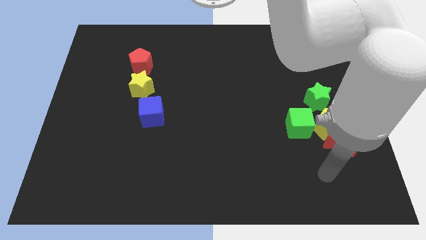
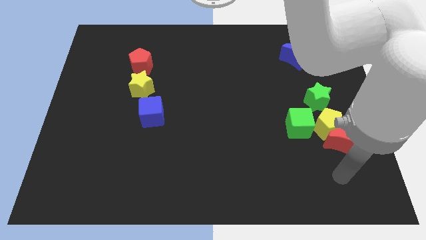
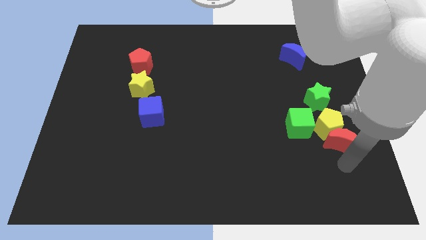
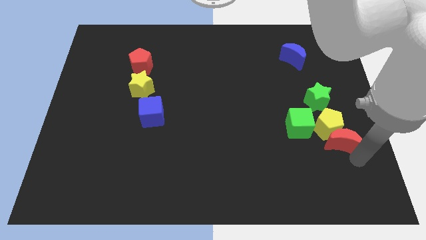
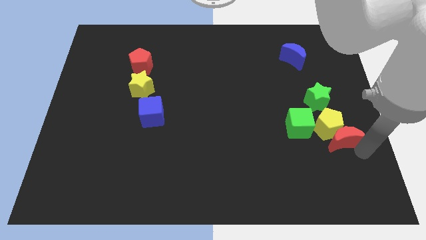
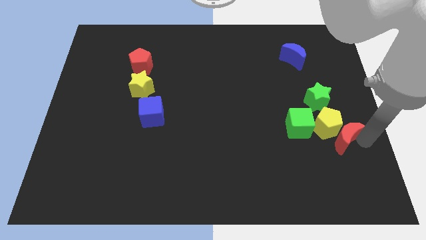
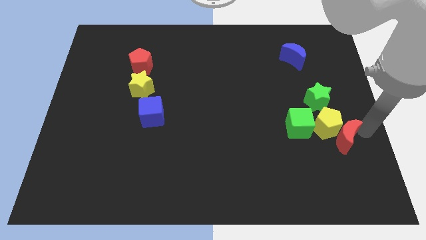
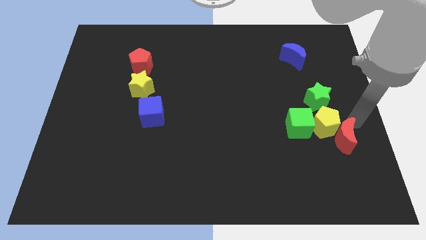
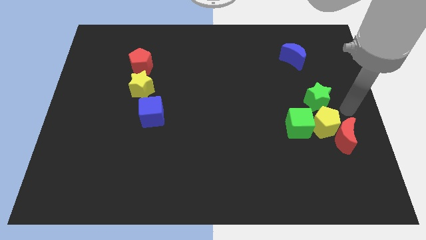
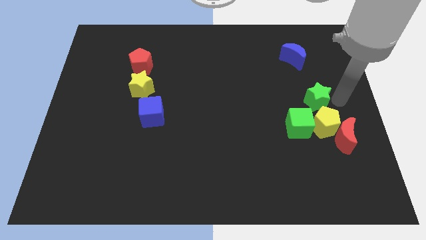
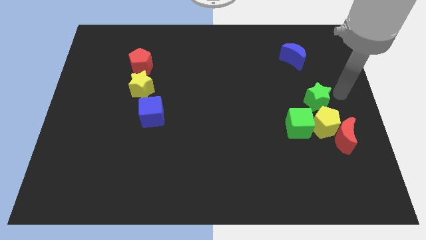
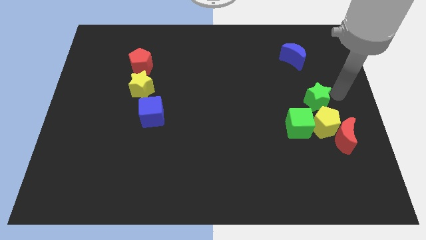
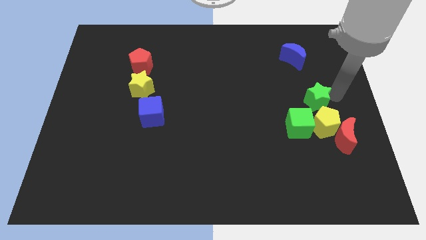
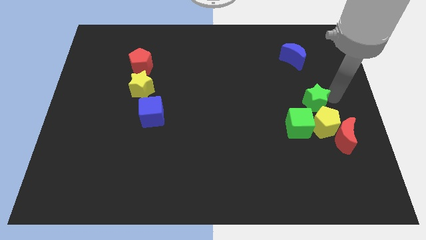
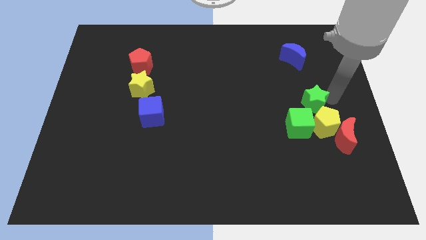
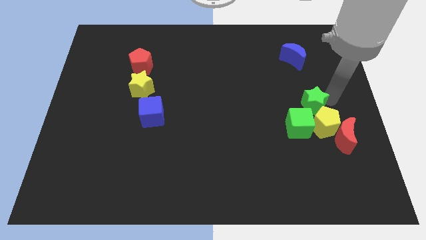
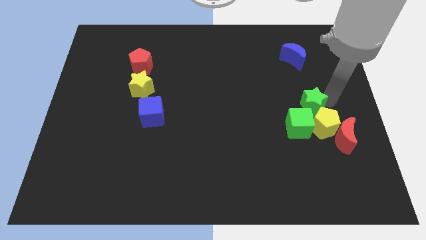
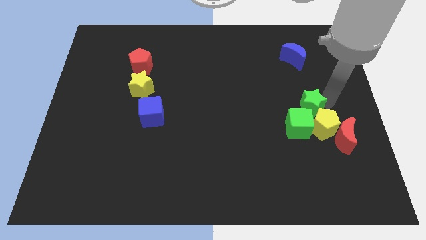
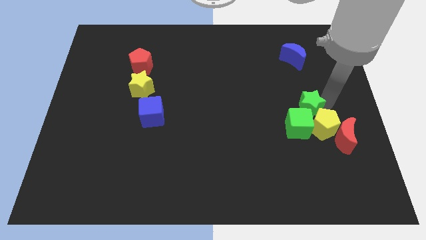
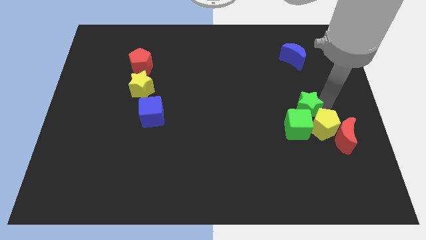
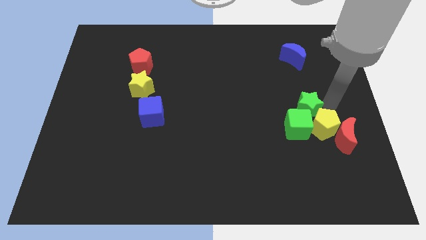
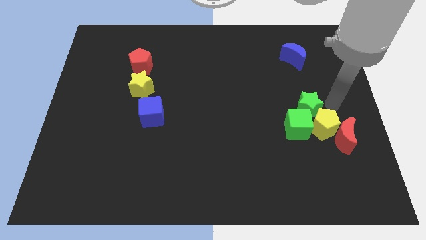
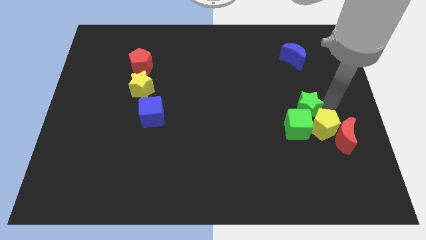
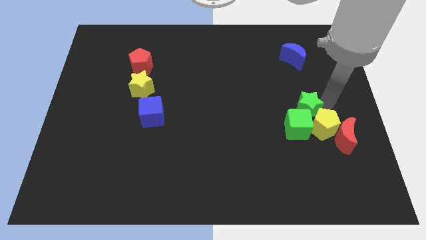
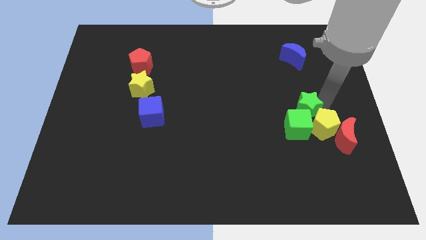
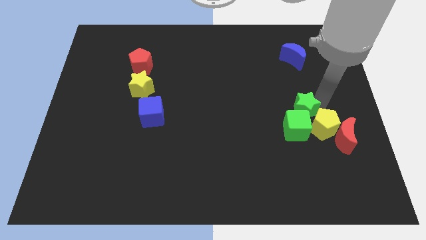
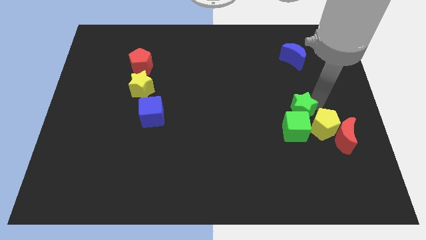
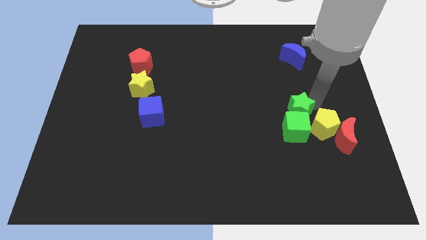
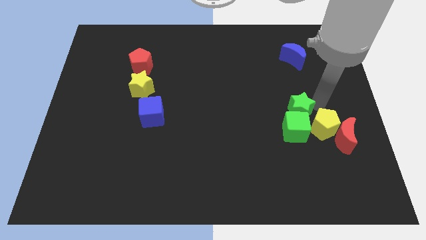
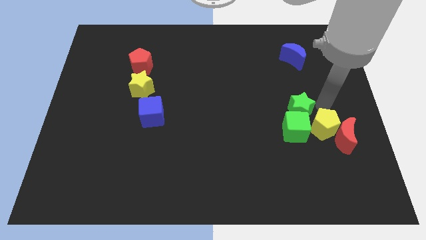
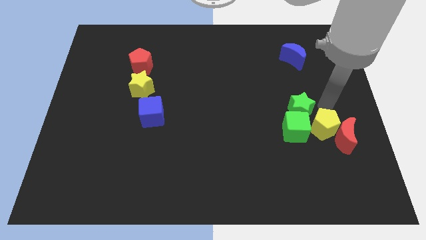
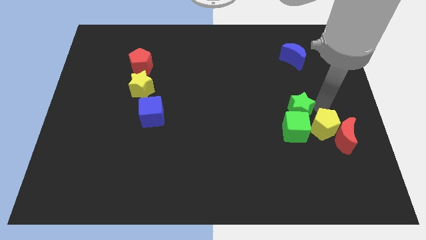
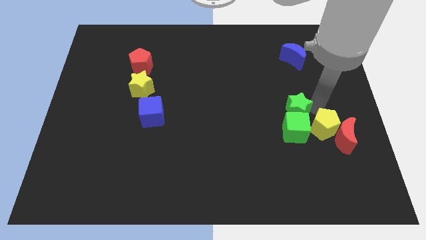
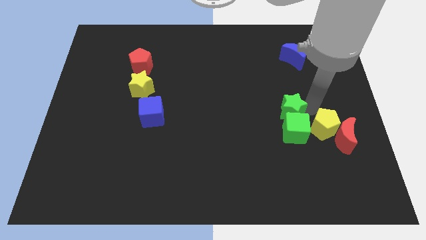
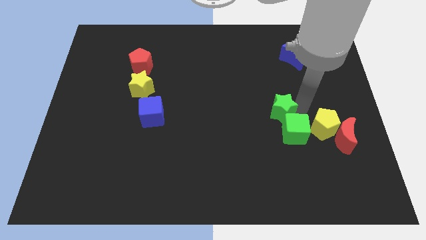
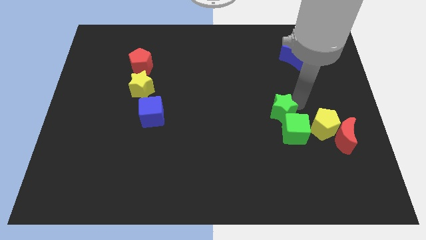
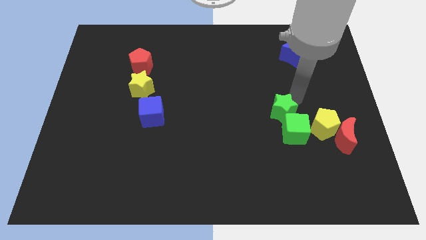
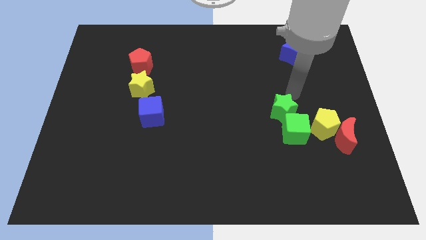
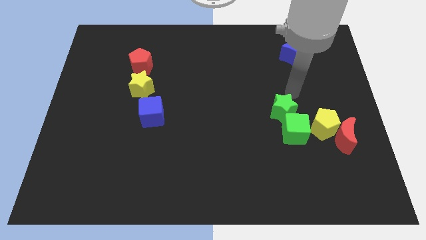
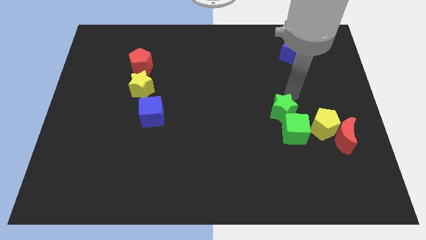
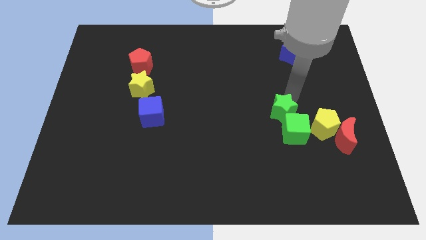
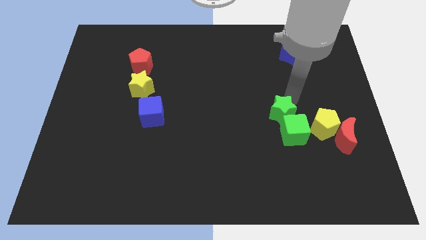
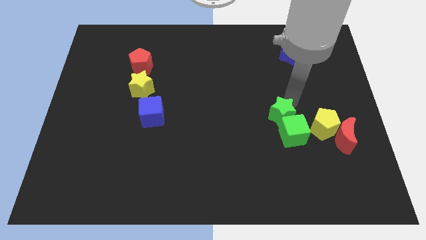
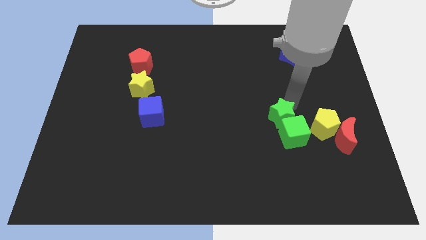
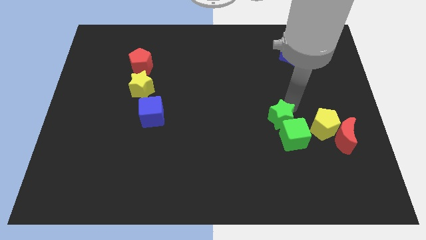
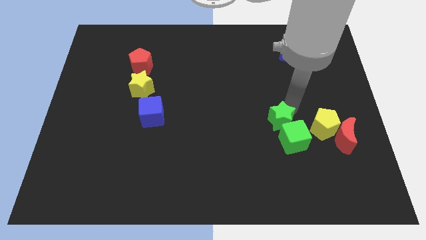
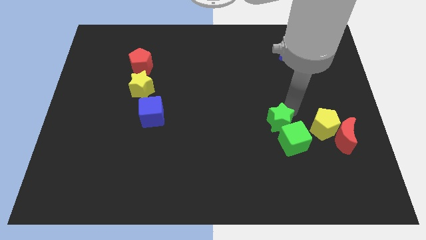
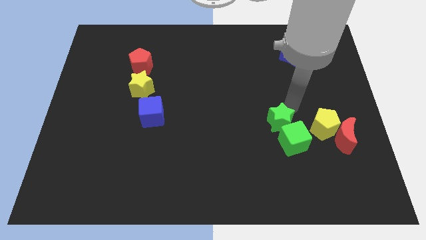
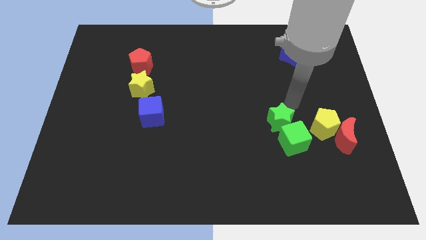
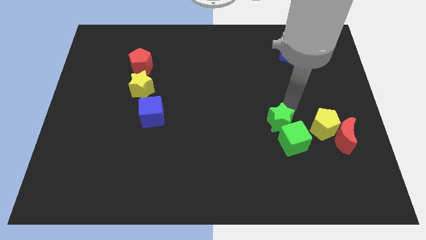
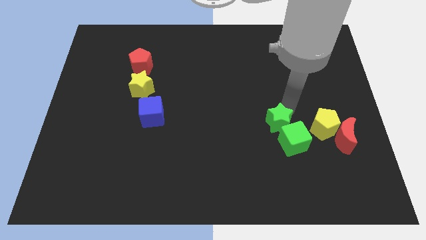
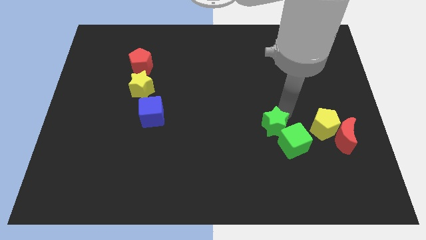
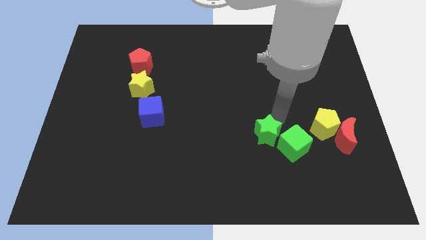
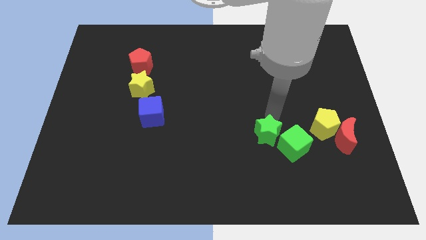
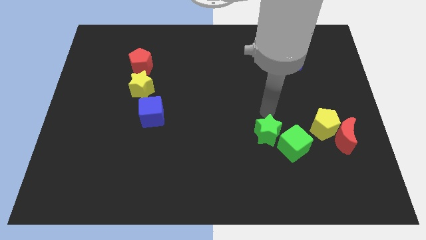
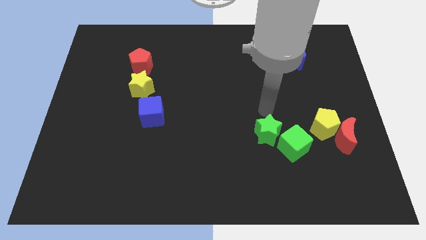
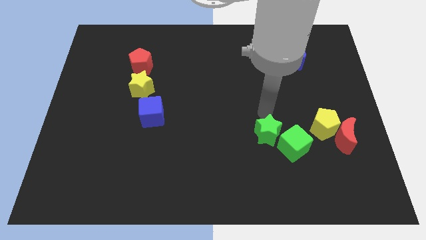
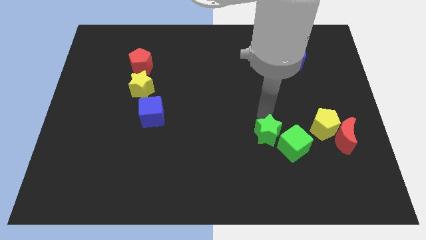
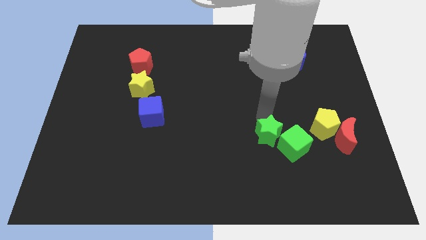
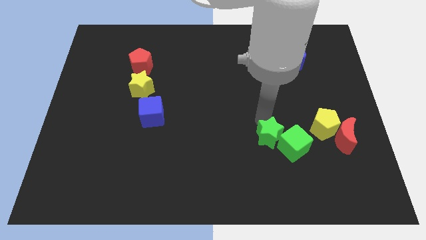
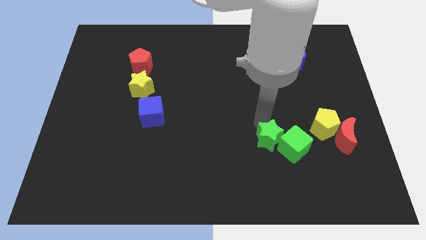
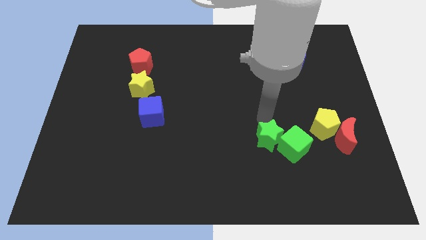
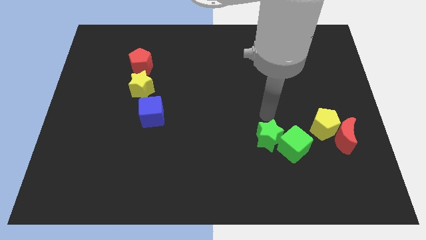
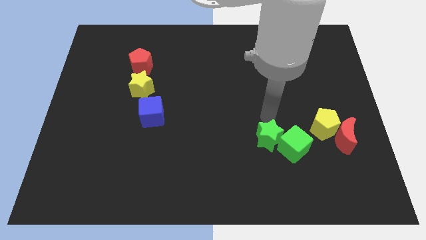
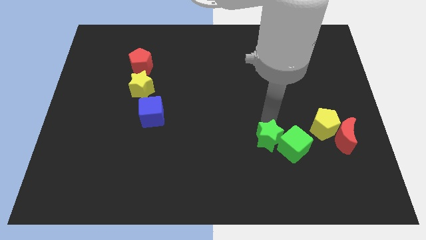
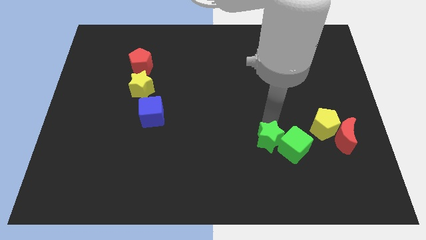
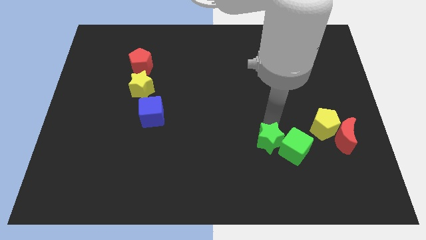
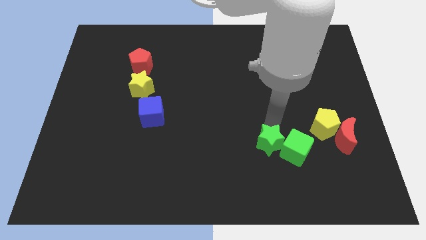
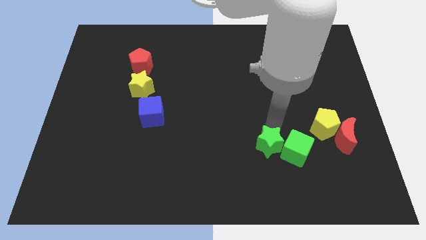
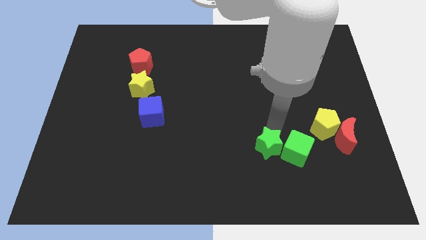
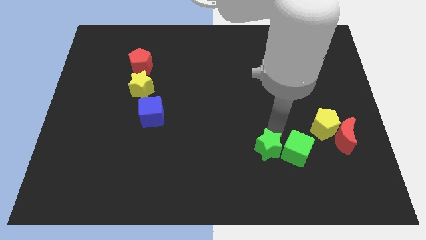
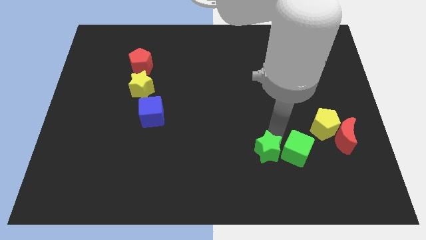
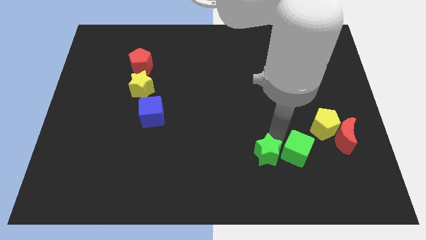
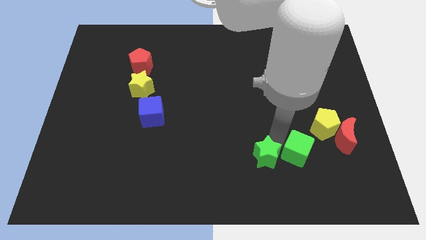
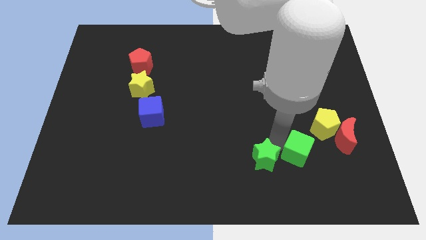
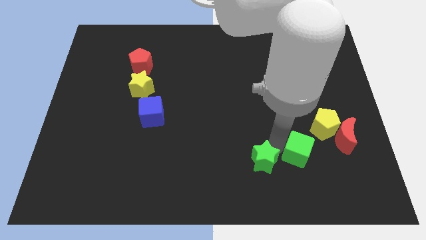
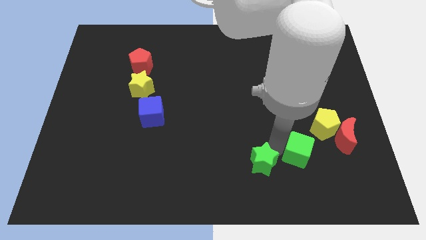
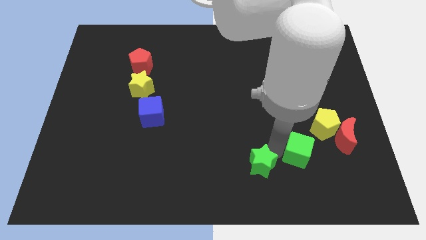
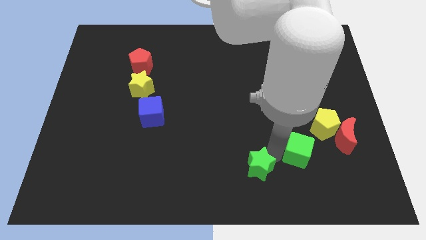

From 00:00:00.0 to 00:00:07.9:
slide the green star to the bottom side

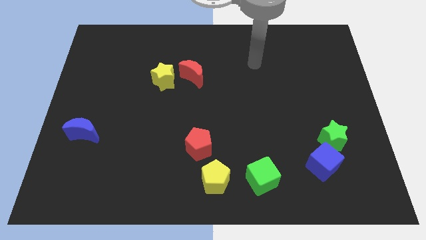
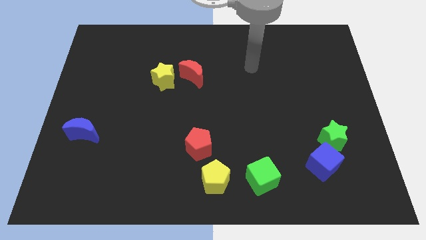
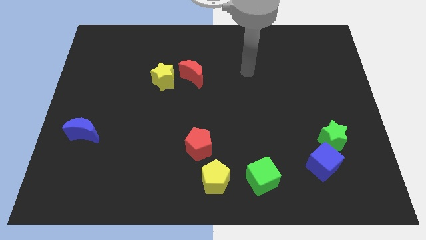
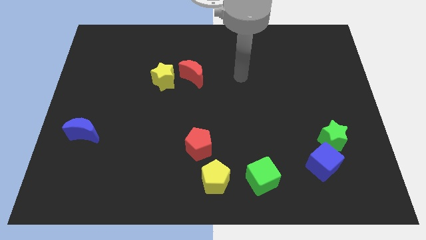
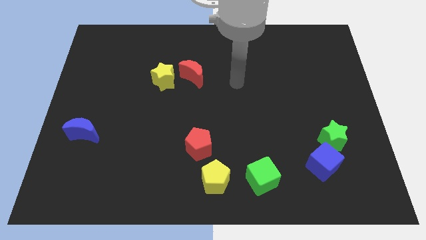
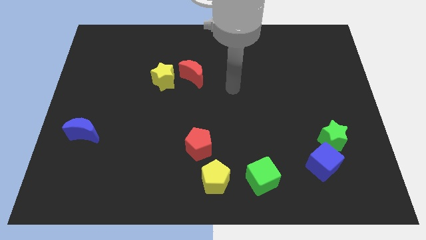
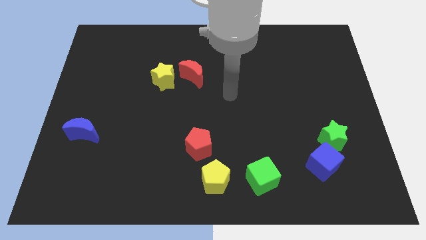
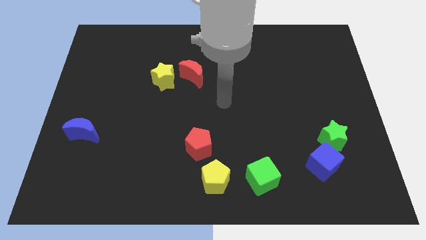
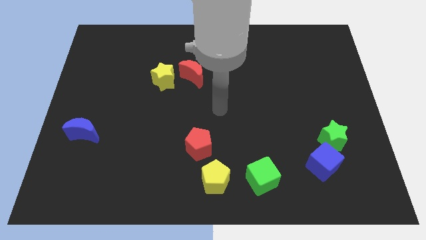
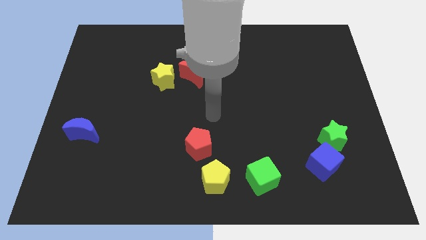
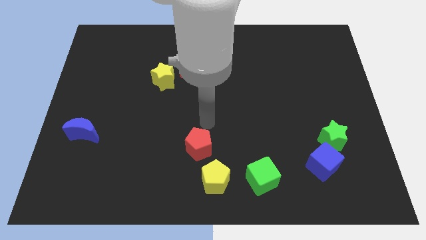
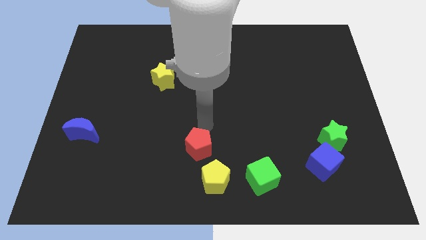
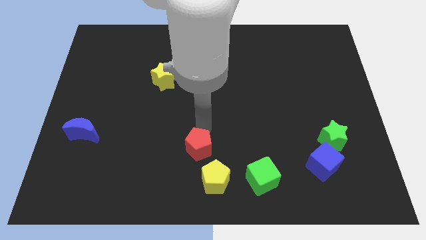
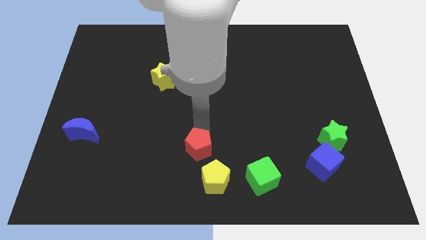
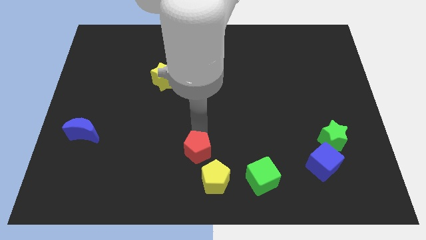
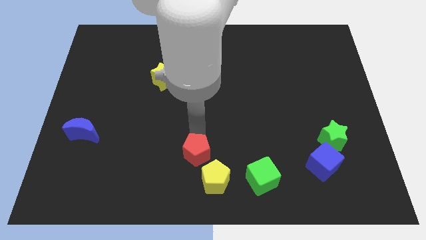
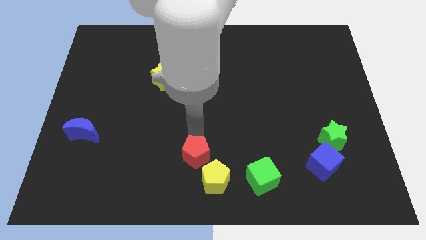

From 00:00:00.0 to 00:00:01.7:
slide the red pentagon to the bottom
